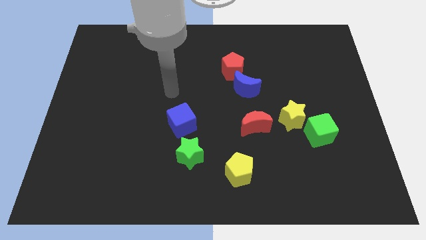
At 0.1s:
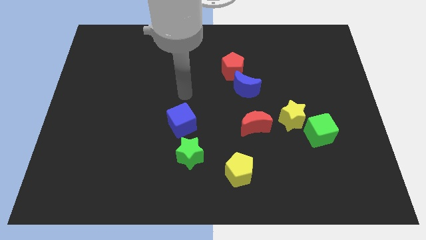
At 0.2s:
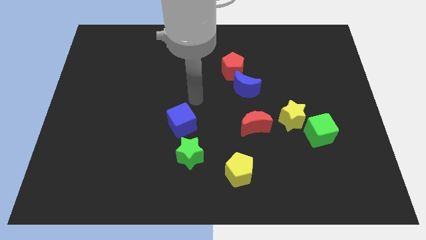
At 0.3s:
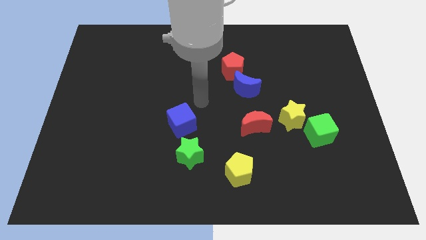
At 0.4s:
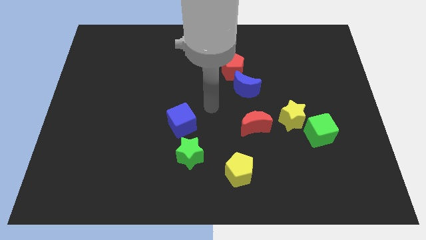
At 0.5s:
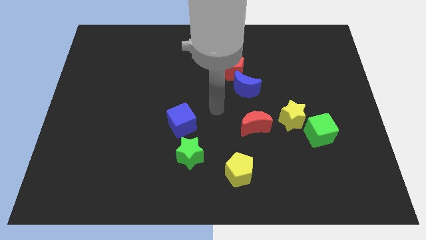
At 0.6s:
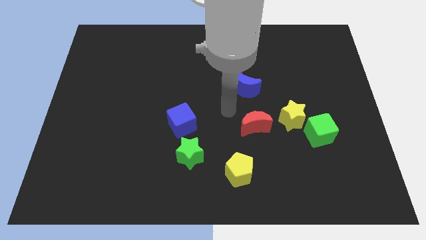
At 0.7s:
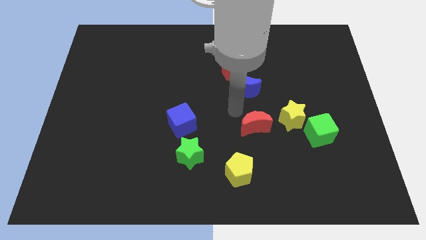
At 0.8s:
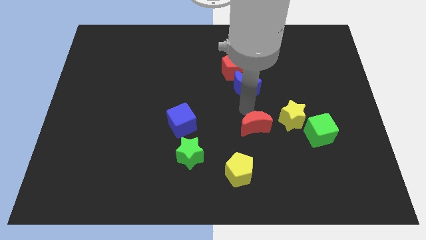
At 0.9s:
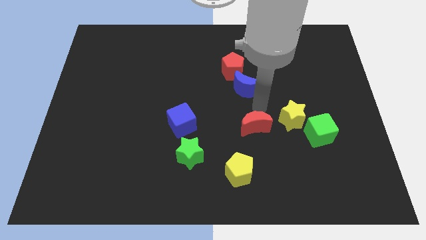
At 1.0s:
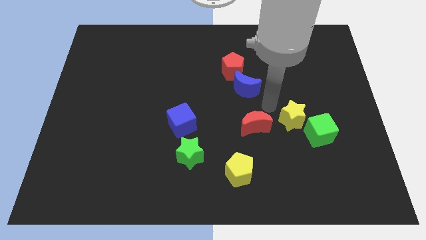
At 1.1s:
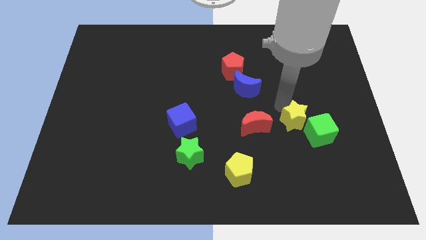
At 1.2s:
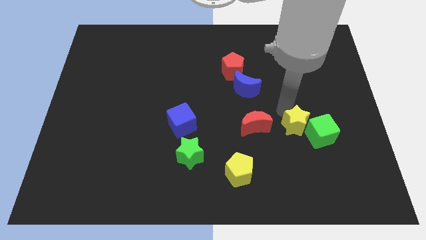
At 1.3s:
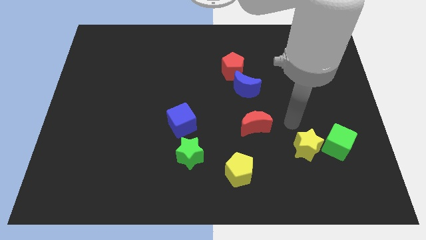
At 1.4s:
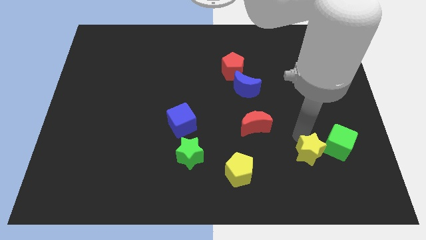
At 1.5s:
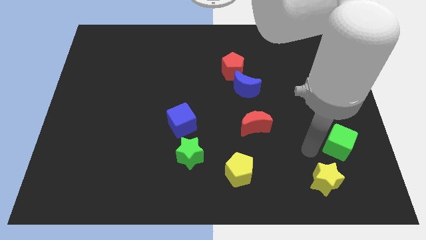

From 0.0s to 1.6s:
pull the green cube apart from the yellow star

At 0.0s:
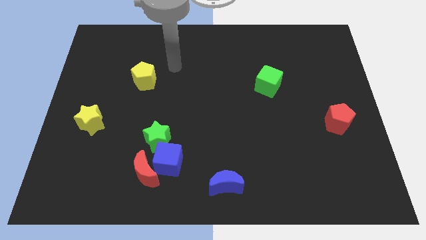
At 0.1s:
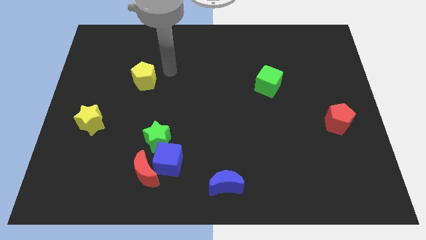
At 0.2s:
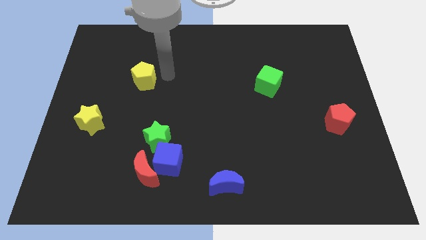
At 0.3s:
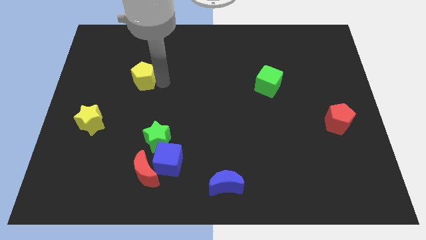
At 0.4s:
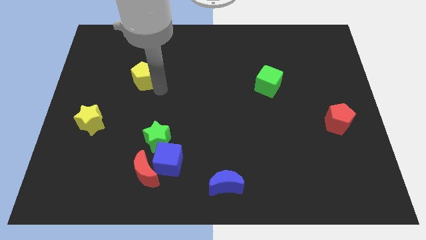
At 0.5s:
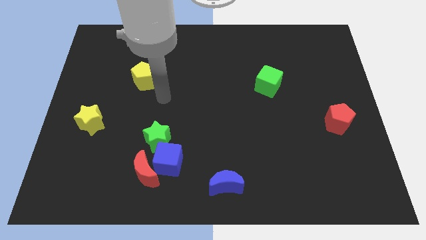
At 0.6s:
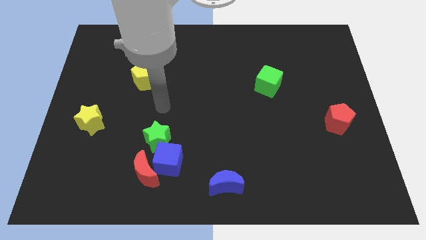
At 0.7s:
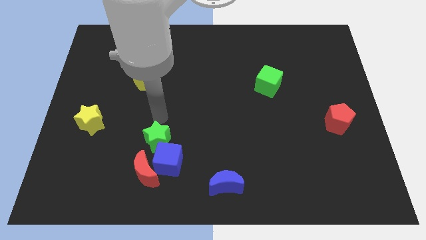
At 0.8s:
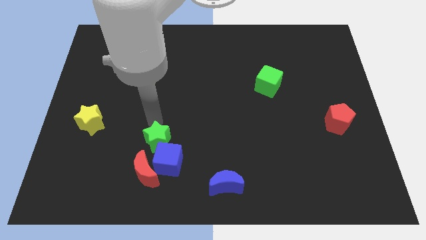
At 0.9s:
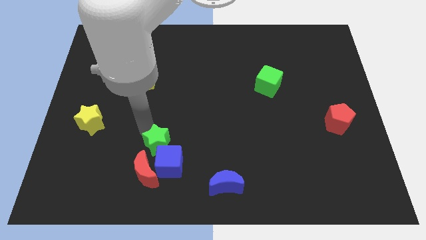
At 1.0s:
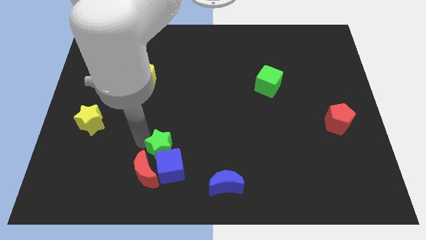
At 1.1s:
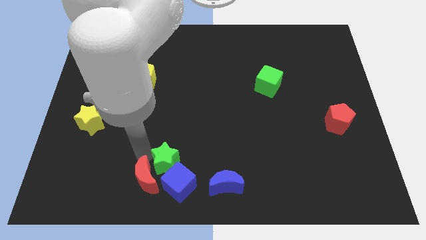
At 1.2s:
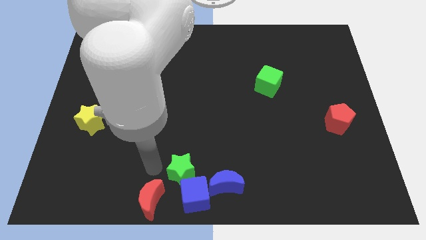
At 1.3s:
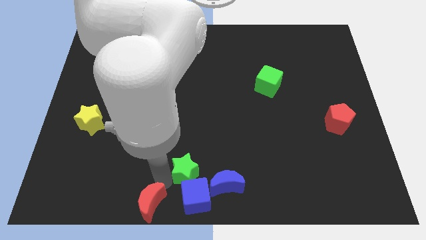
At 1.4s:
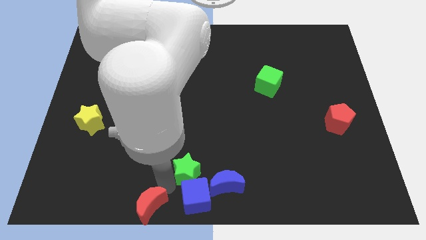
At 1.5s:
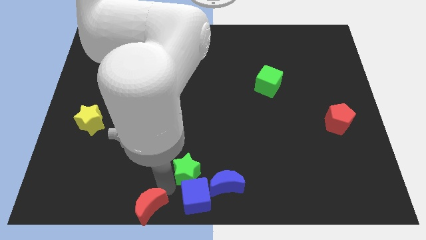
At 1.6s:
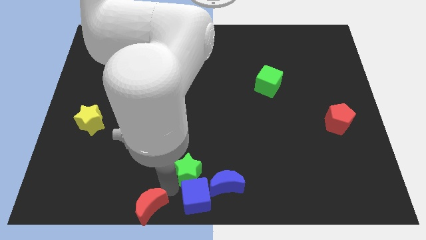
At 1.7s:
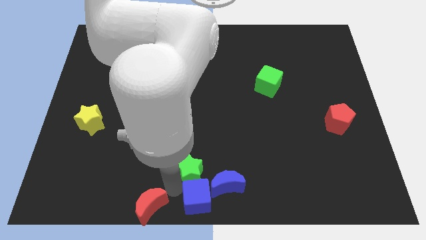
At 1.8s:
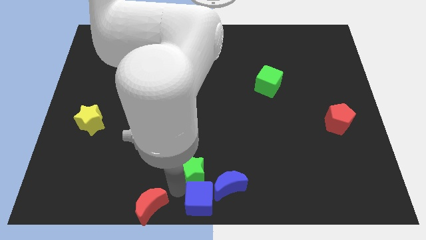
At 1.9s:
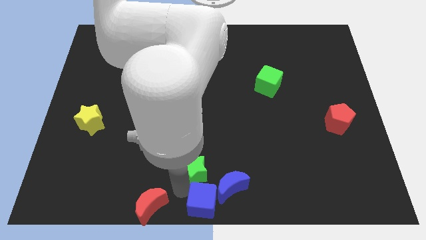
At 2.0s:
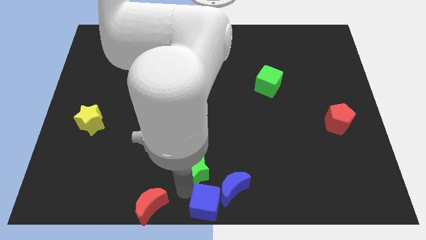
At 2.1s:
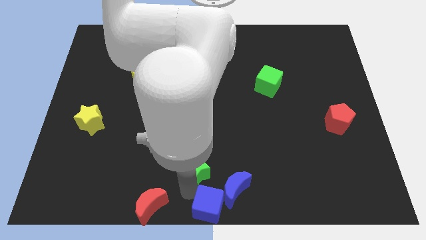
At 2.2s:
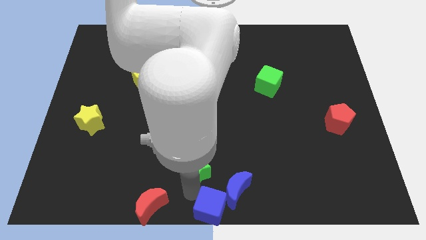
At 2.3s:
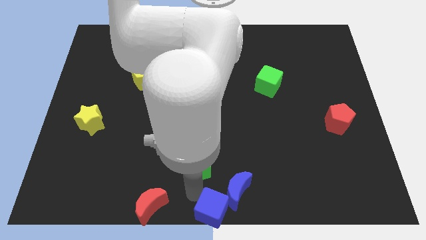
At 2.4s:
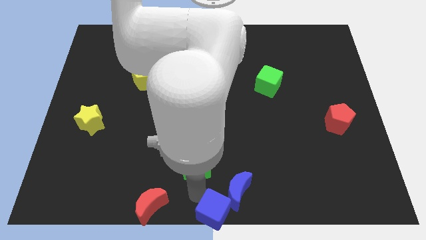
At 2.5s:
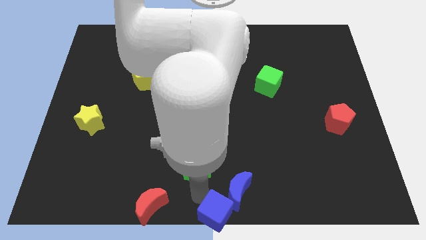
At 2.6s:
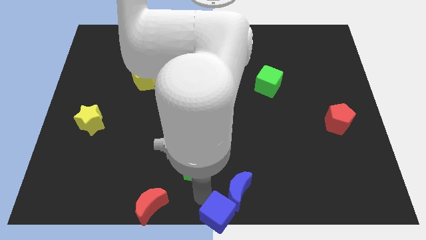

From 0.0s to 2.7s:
pull the blue cube apart from the red moon and green star

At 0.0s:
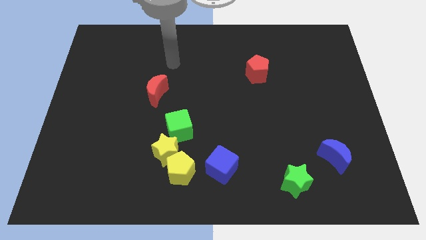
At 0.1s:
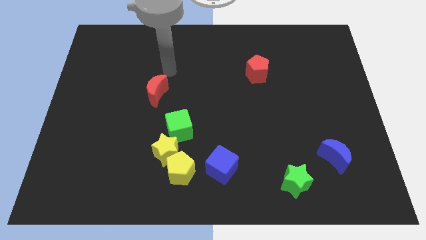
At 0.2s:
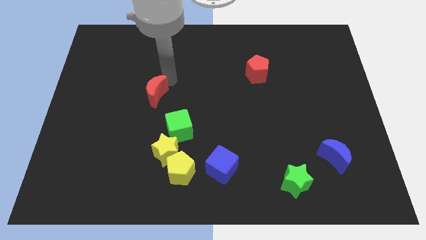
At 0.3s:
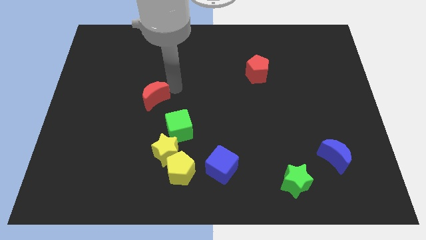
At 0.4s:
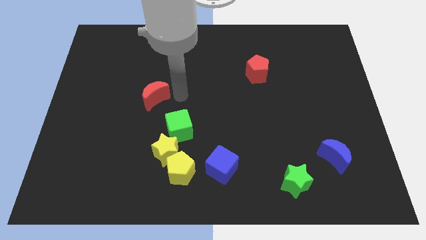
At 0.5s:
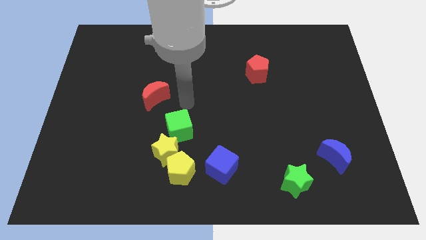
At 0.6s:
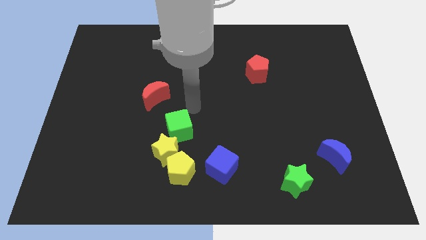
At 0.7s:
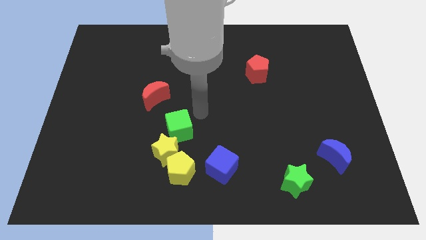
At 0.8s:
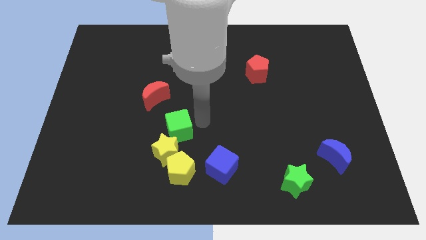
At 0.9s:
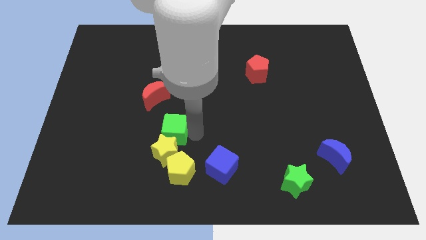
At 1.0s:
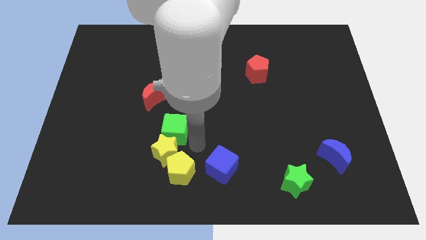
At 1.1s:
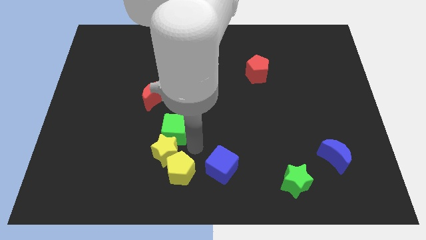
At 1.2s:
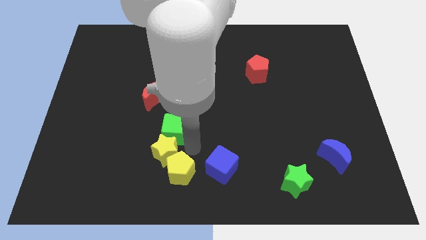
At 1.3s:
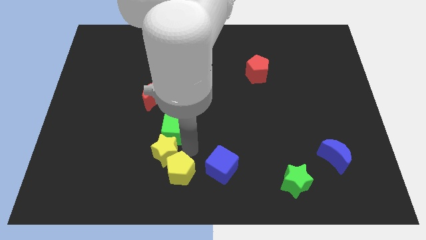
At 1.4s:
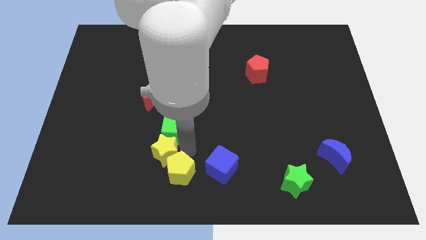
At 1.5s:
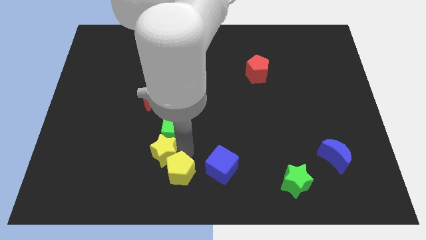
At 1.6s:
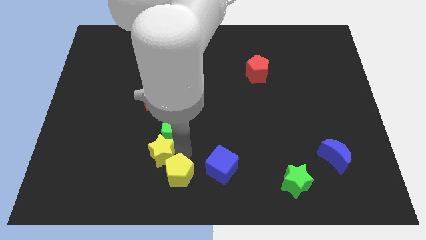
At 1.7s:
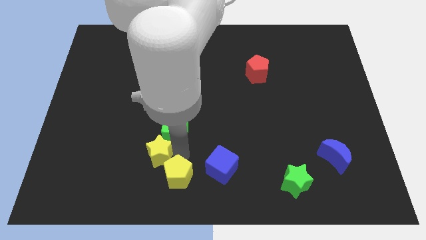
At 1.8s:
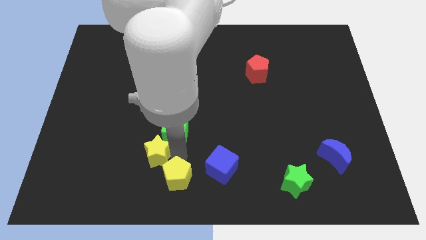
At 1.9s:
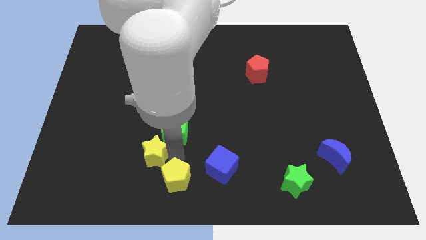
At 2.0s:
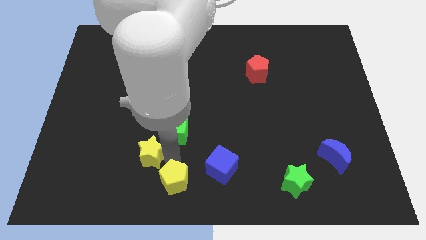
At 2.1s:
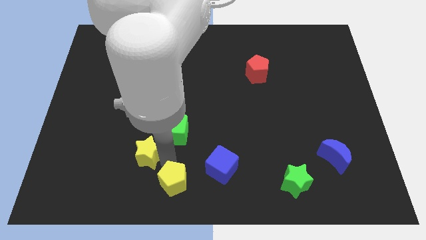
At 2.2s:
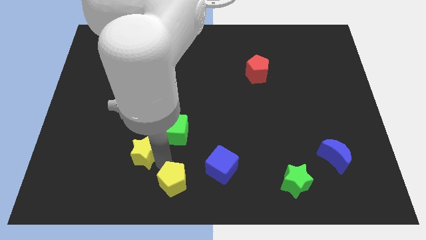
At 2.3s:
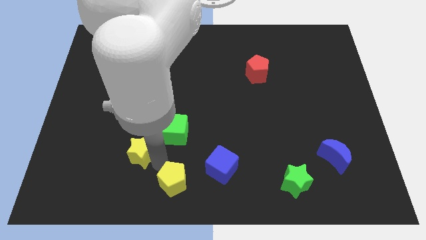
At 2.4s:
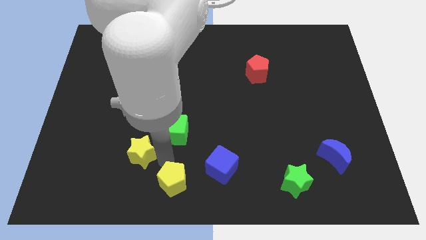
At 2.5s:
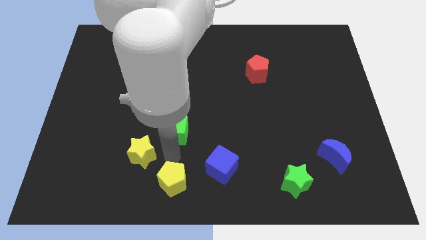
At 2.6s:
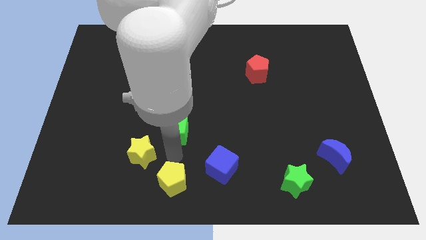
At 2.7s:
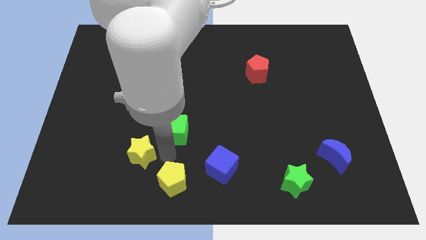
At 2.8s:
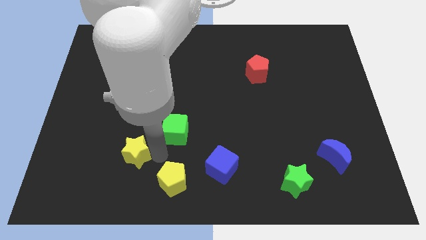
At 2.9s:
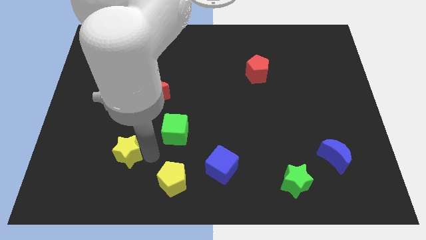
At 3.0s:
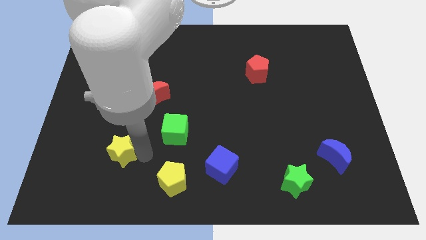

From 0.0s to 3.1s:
separate the yellow star from the yellow pentagon and green cube

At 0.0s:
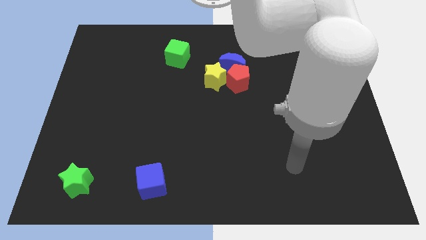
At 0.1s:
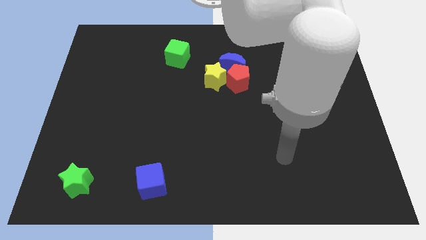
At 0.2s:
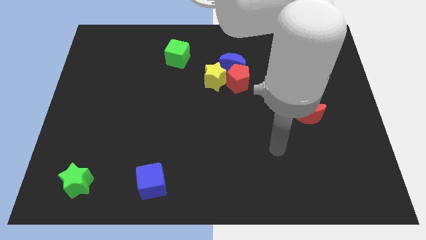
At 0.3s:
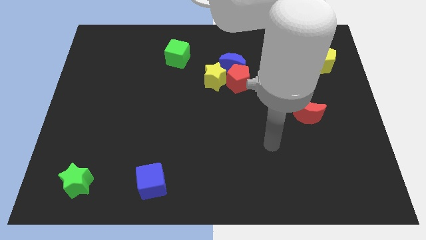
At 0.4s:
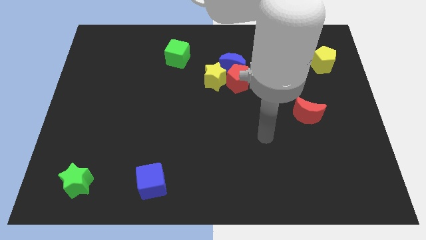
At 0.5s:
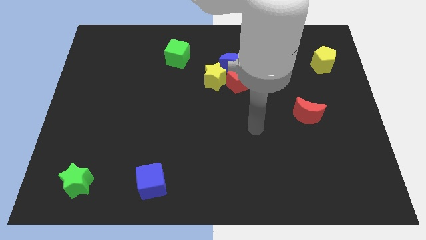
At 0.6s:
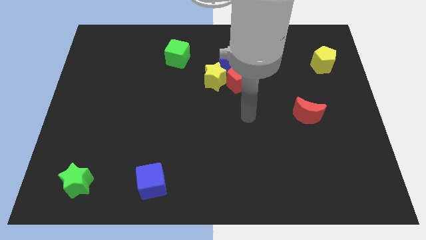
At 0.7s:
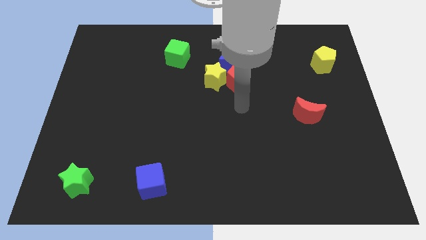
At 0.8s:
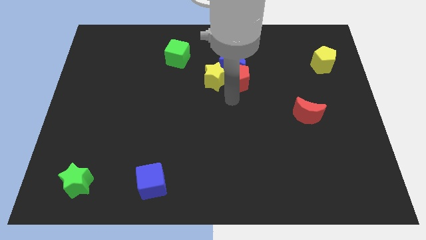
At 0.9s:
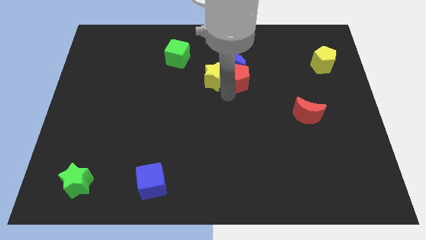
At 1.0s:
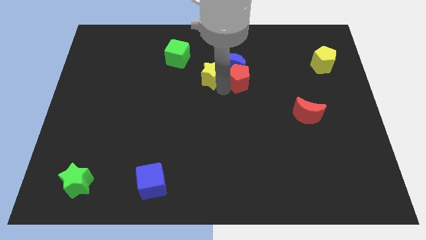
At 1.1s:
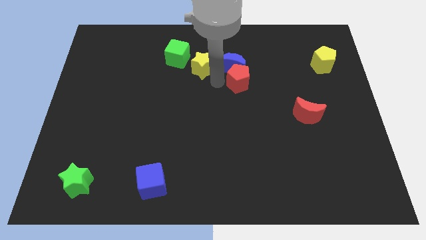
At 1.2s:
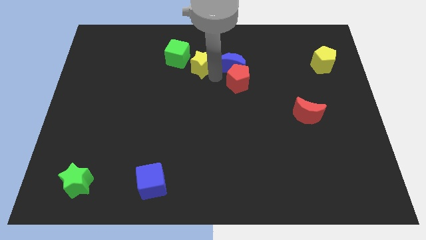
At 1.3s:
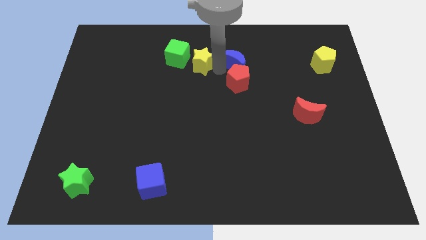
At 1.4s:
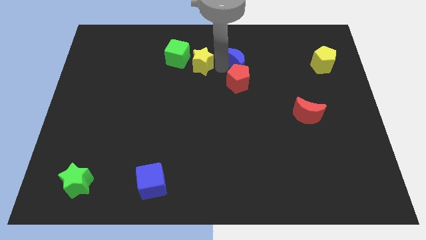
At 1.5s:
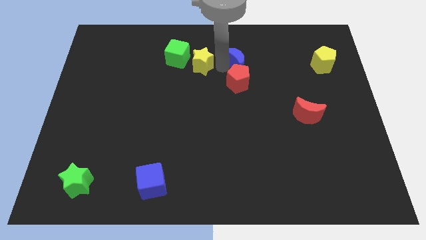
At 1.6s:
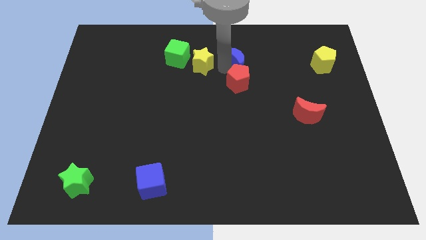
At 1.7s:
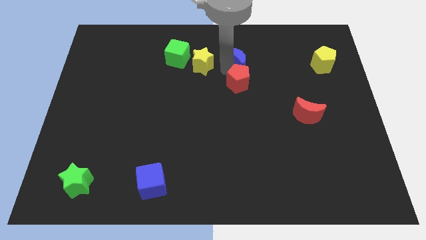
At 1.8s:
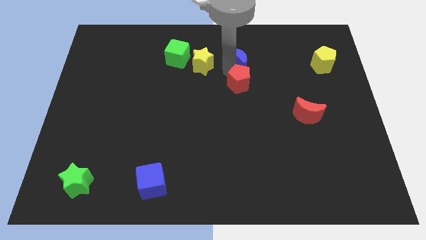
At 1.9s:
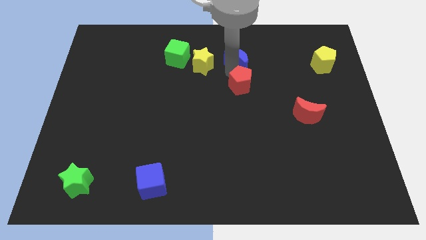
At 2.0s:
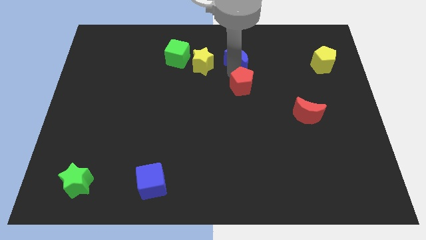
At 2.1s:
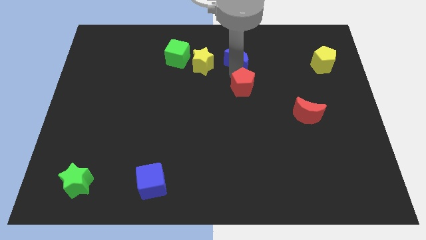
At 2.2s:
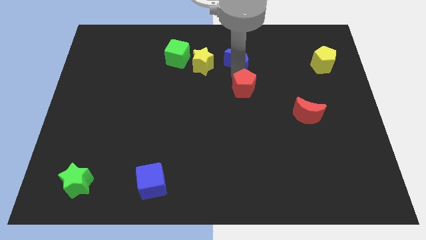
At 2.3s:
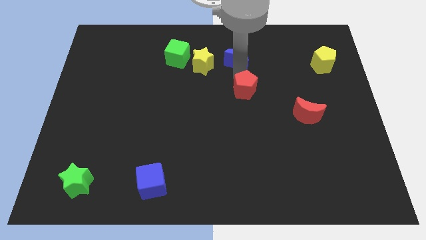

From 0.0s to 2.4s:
pull the red pentagon apart from the blue moon and yellow star
